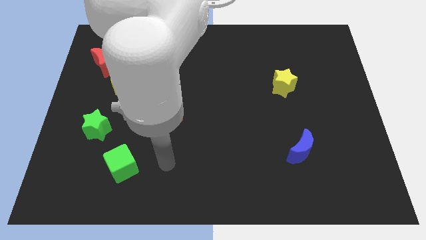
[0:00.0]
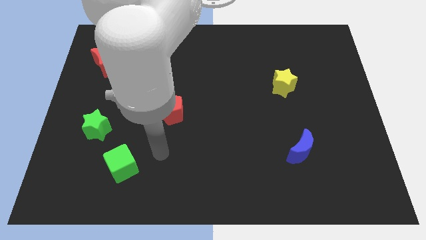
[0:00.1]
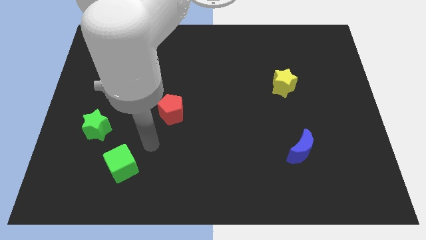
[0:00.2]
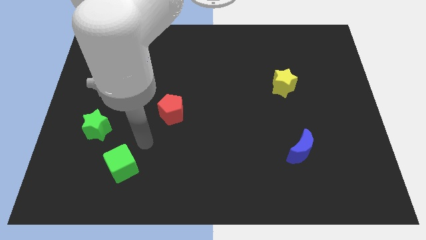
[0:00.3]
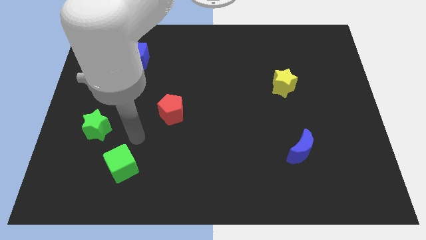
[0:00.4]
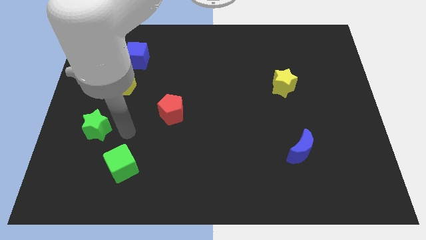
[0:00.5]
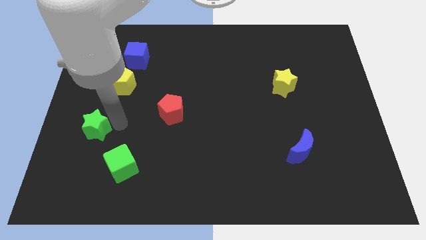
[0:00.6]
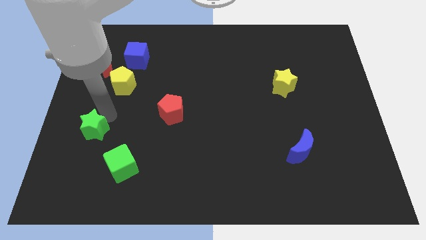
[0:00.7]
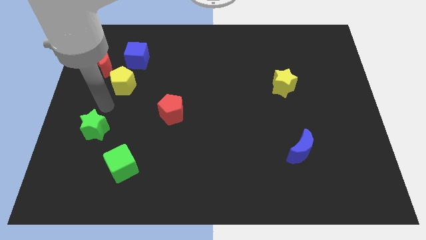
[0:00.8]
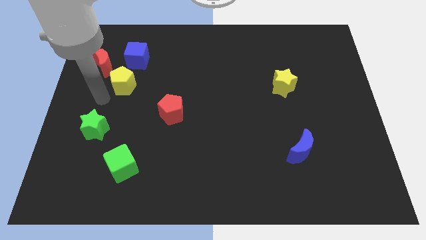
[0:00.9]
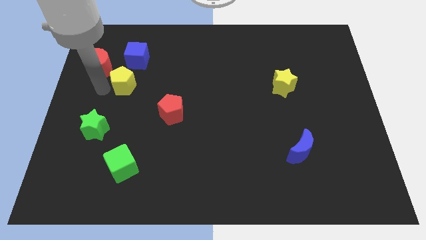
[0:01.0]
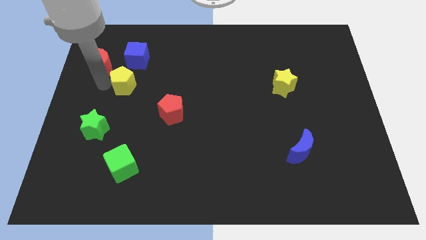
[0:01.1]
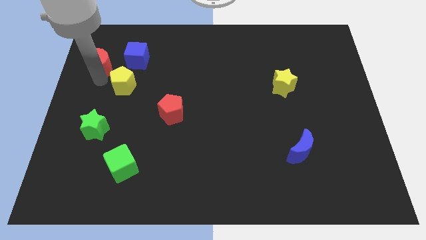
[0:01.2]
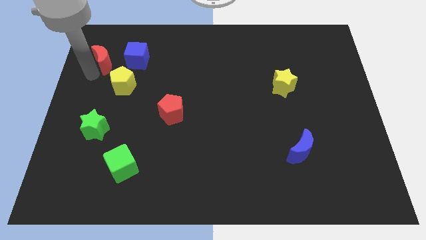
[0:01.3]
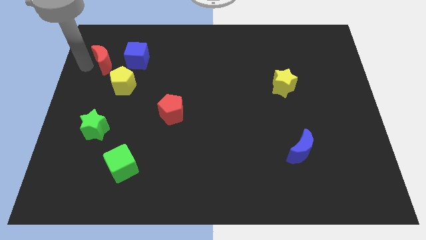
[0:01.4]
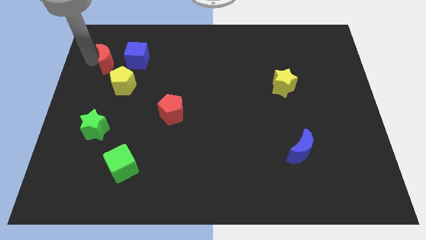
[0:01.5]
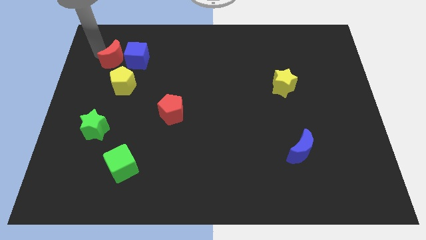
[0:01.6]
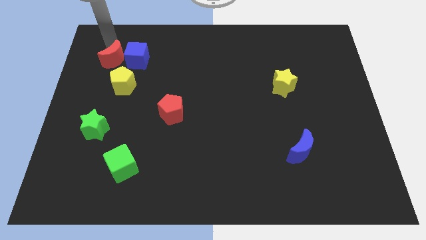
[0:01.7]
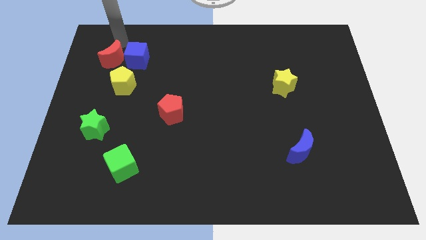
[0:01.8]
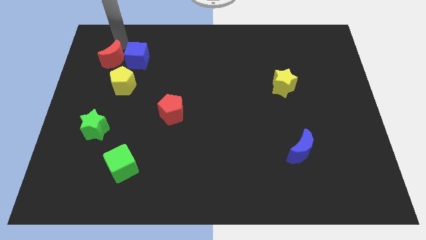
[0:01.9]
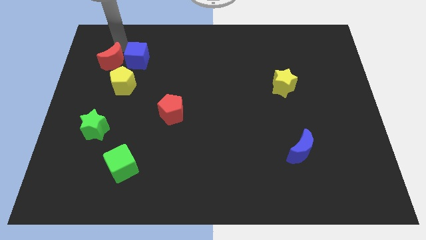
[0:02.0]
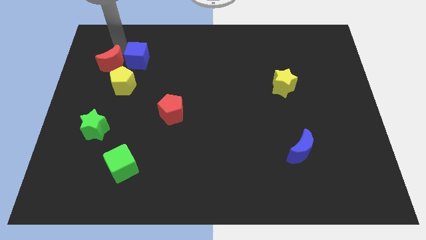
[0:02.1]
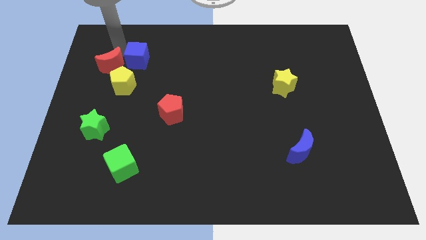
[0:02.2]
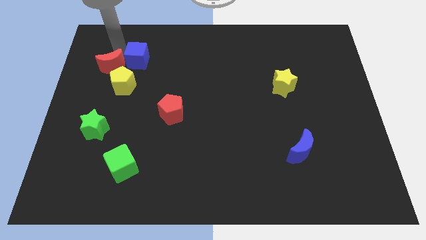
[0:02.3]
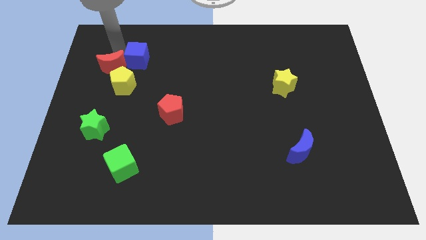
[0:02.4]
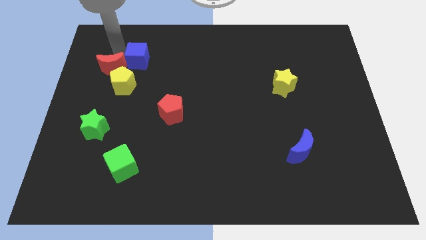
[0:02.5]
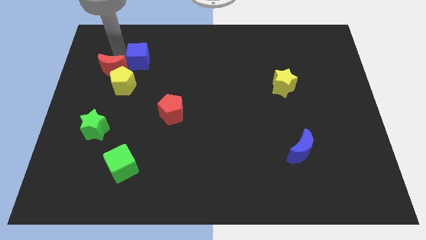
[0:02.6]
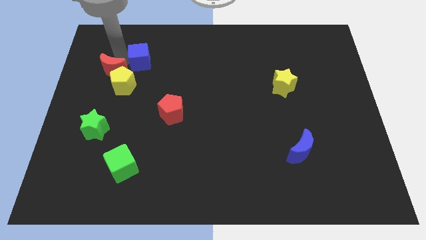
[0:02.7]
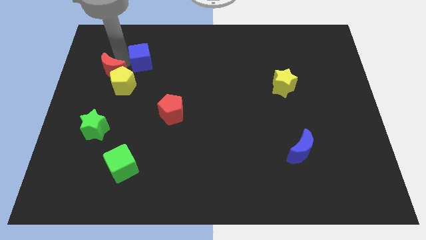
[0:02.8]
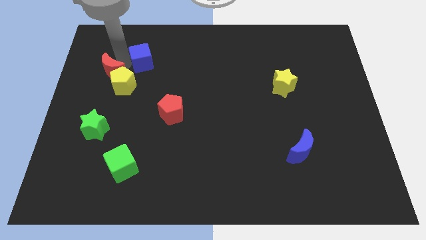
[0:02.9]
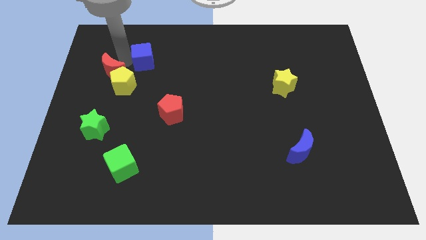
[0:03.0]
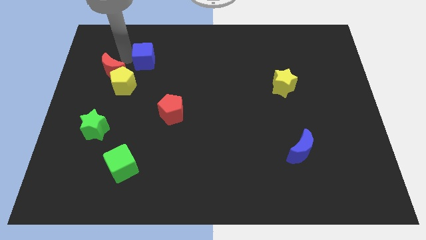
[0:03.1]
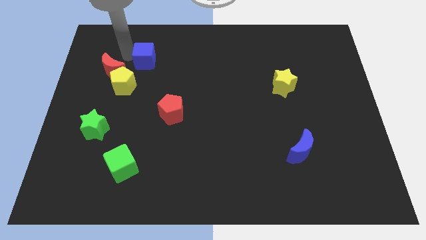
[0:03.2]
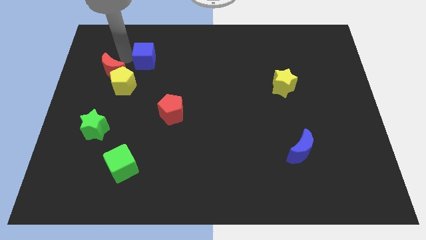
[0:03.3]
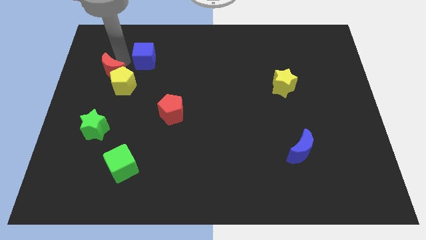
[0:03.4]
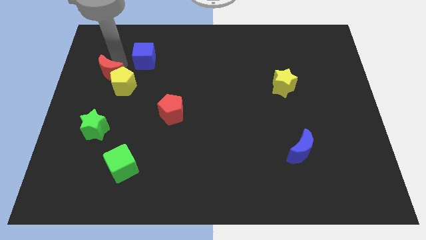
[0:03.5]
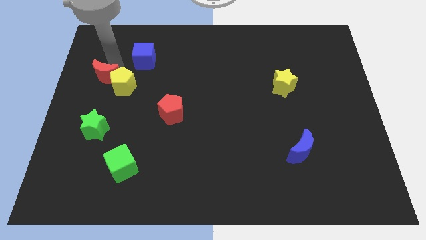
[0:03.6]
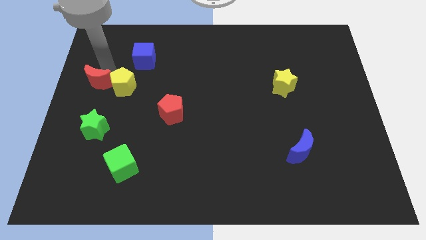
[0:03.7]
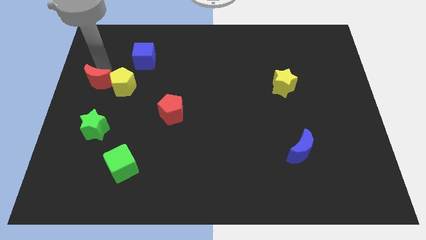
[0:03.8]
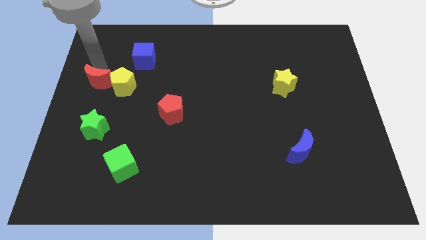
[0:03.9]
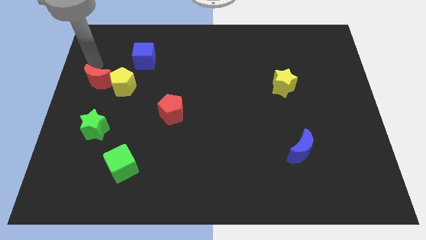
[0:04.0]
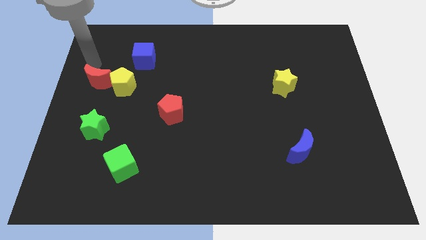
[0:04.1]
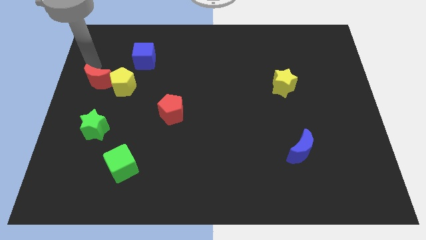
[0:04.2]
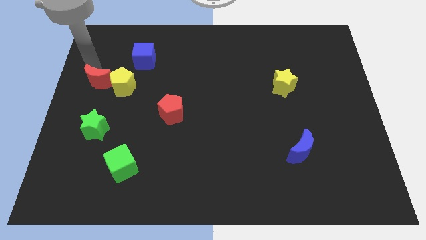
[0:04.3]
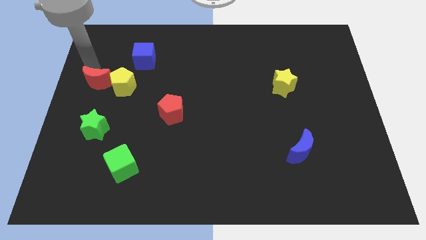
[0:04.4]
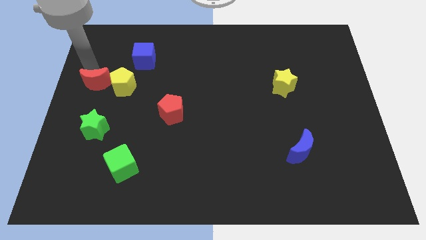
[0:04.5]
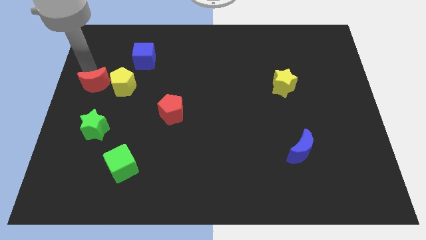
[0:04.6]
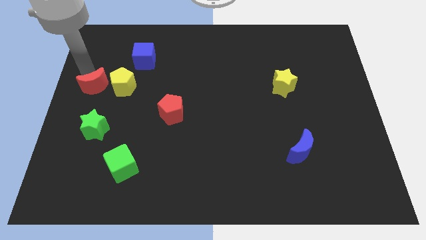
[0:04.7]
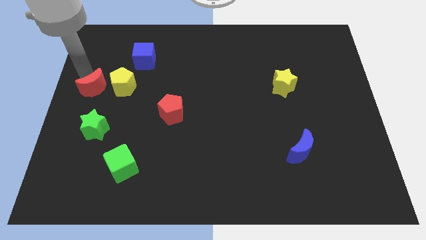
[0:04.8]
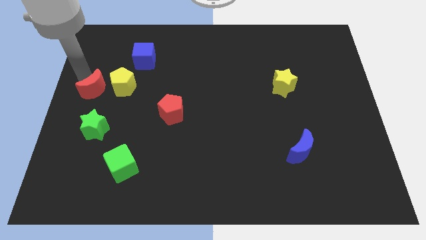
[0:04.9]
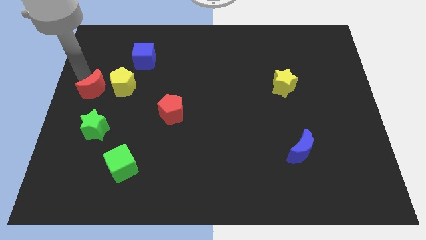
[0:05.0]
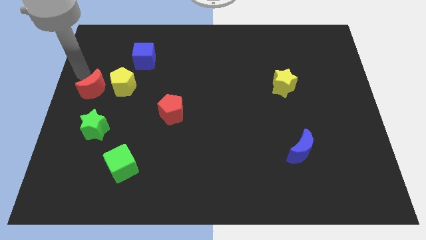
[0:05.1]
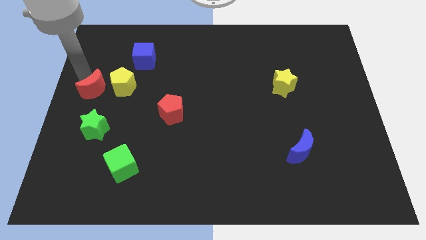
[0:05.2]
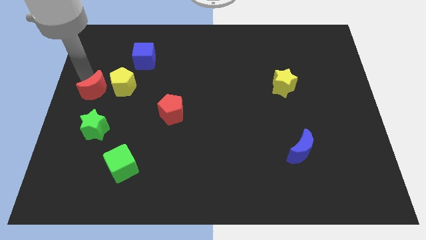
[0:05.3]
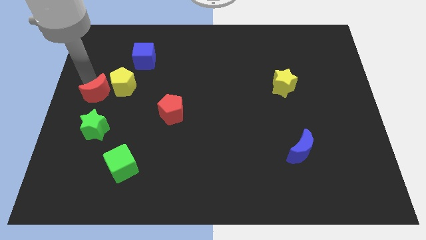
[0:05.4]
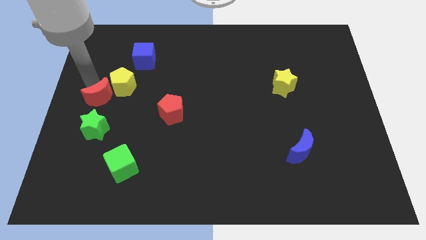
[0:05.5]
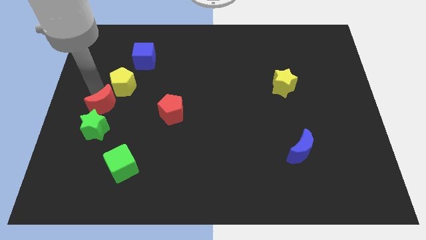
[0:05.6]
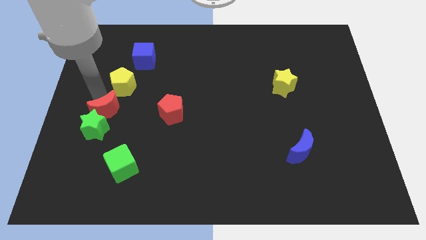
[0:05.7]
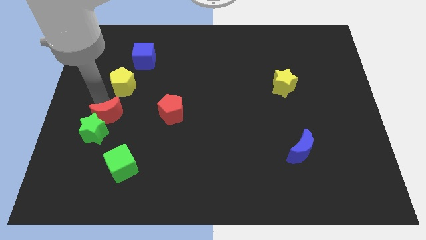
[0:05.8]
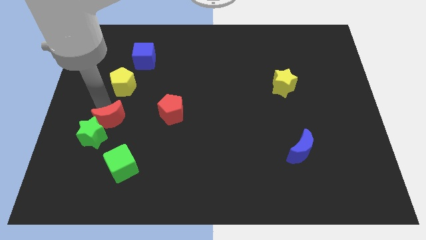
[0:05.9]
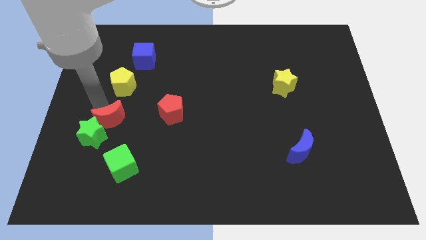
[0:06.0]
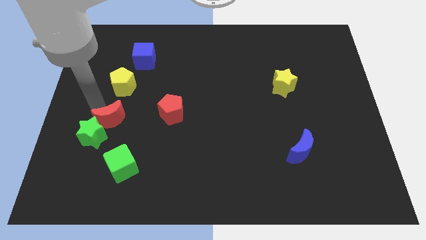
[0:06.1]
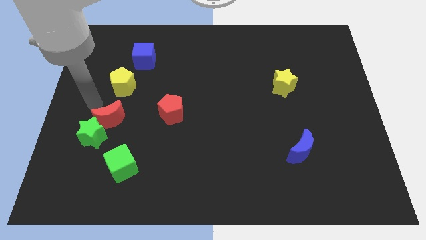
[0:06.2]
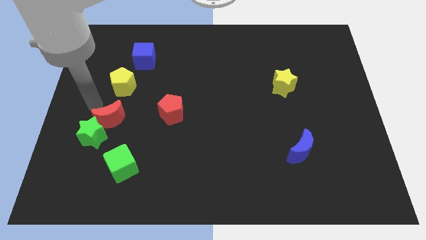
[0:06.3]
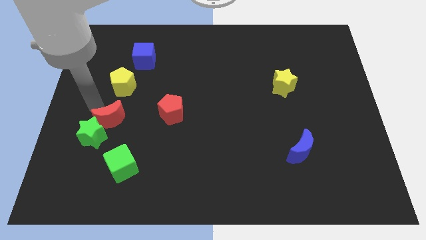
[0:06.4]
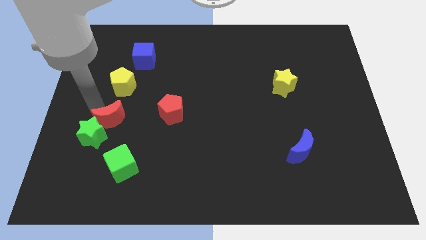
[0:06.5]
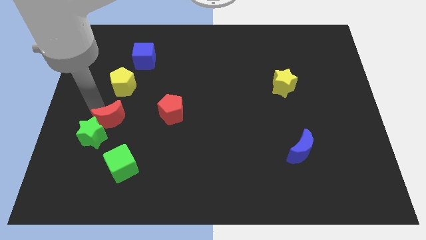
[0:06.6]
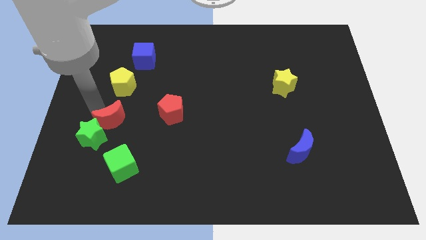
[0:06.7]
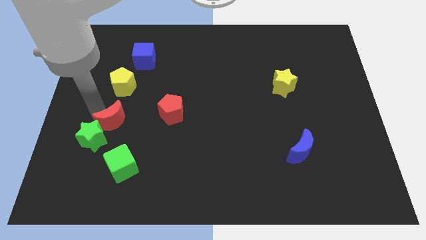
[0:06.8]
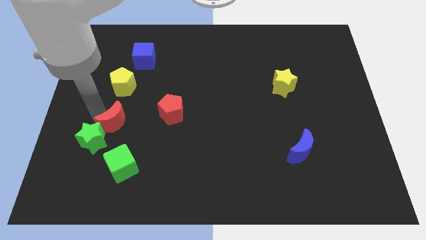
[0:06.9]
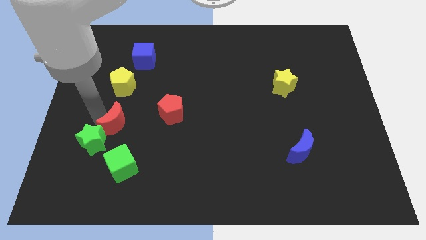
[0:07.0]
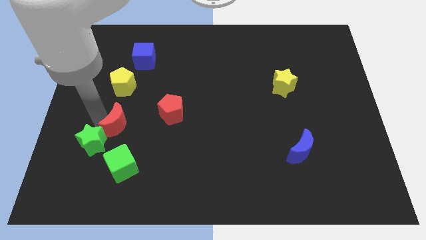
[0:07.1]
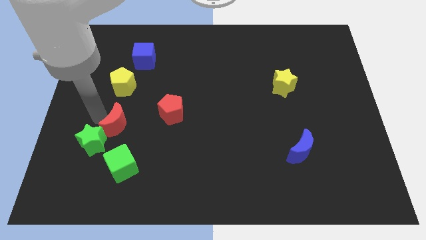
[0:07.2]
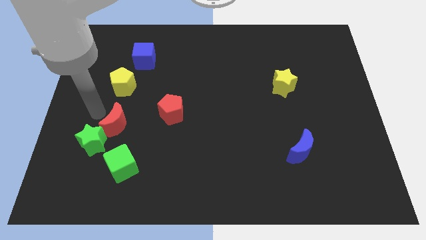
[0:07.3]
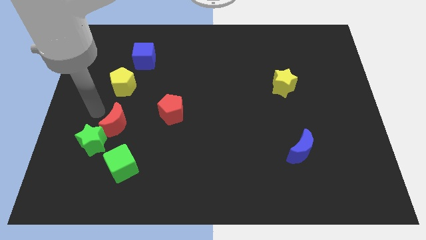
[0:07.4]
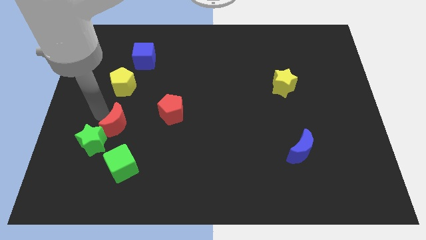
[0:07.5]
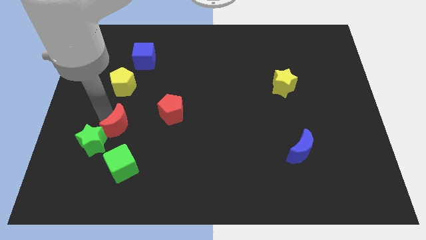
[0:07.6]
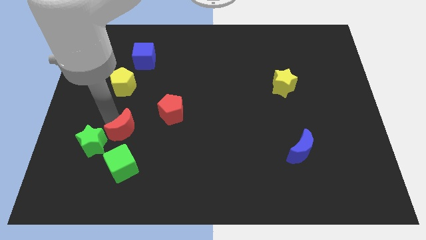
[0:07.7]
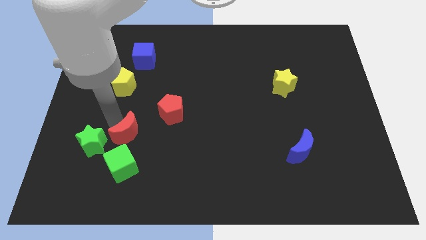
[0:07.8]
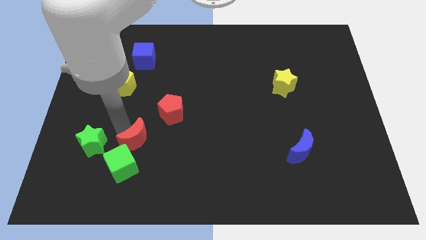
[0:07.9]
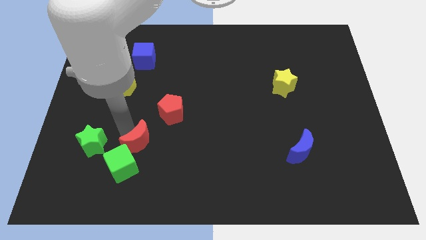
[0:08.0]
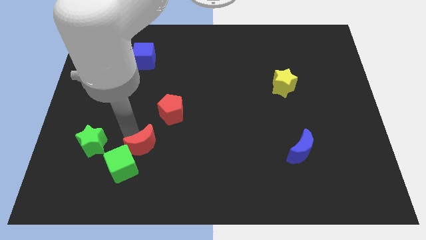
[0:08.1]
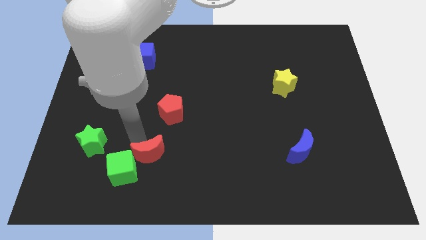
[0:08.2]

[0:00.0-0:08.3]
slide the red moon just right of the green cube
